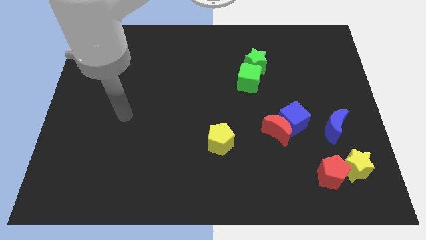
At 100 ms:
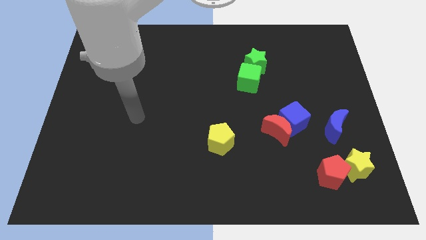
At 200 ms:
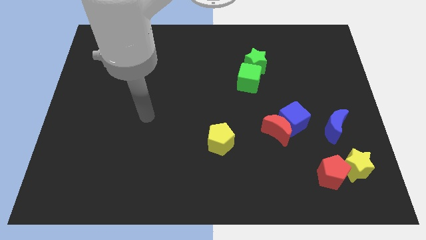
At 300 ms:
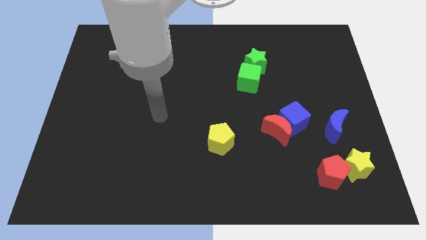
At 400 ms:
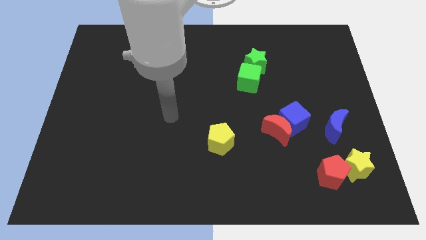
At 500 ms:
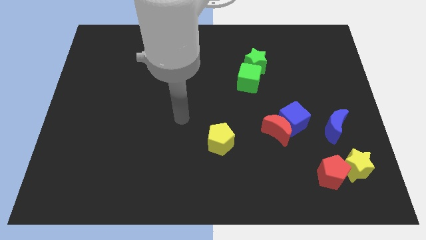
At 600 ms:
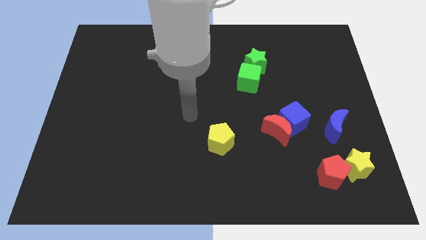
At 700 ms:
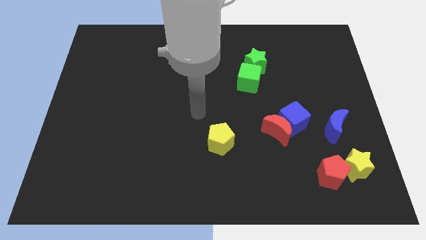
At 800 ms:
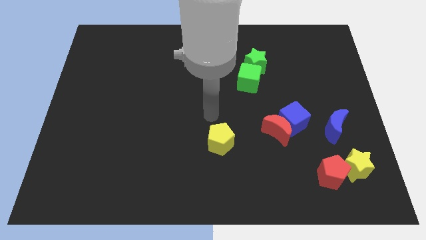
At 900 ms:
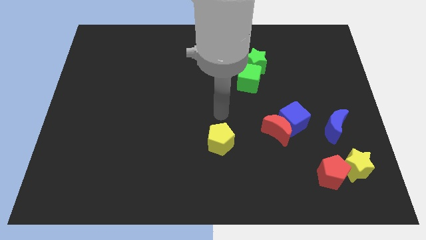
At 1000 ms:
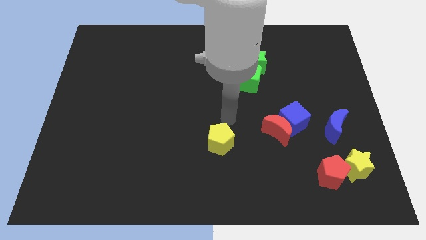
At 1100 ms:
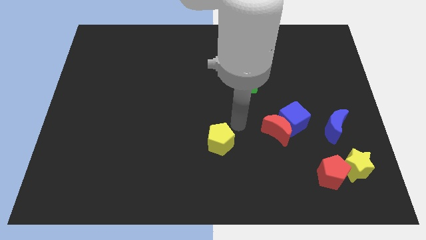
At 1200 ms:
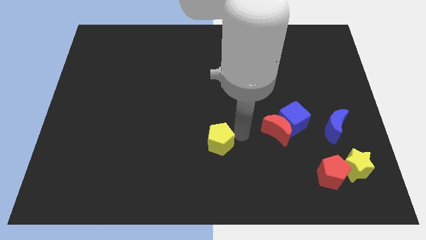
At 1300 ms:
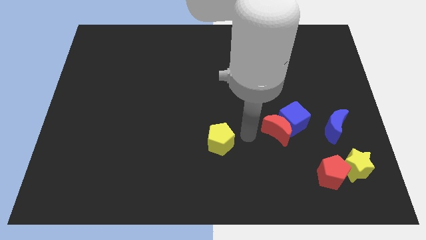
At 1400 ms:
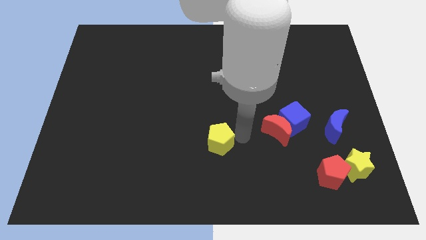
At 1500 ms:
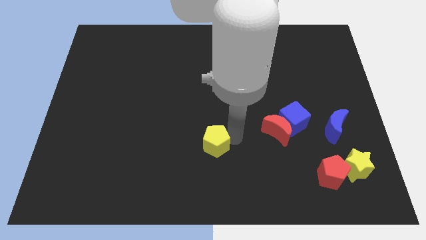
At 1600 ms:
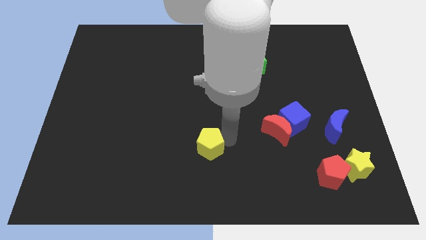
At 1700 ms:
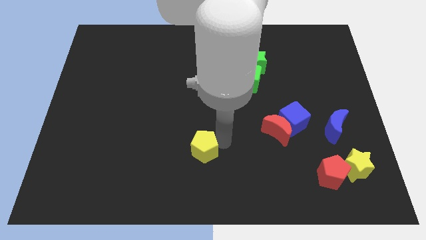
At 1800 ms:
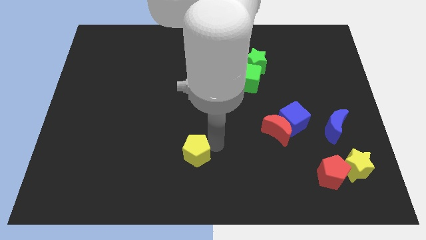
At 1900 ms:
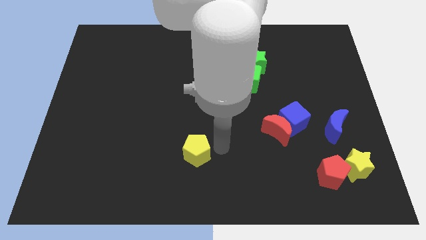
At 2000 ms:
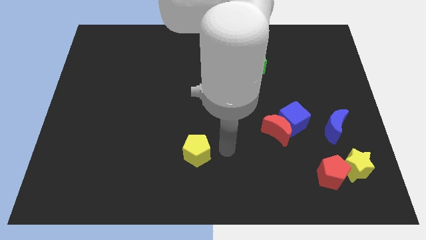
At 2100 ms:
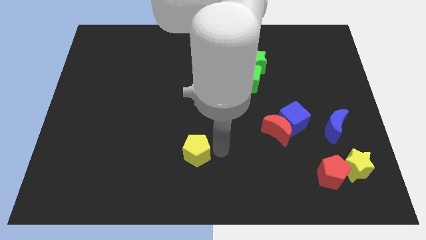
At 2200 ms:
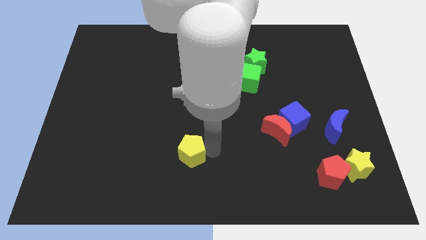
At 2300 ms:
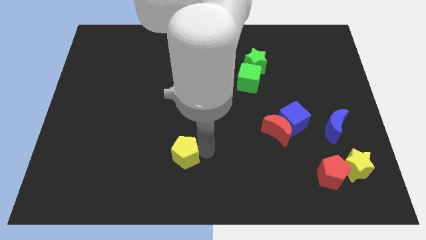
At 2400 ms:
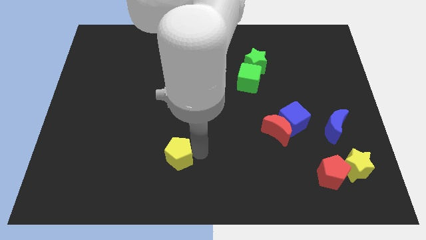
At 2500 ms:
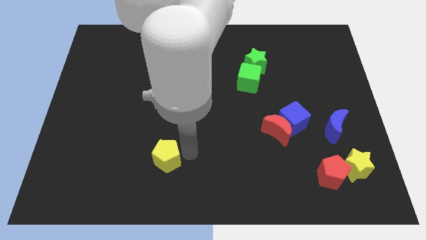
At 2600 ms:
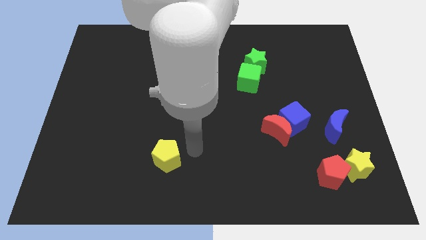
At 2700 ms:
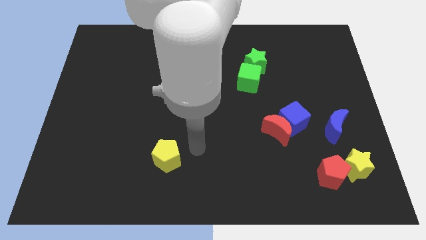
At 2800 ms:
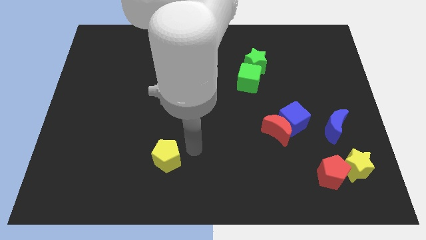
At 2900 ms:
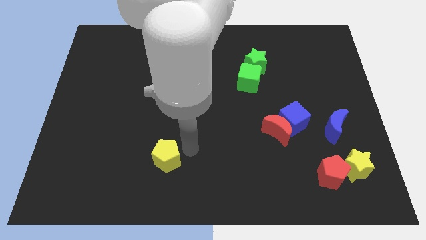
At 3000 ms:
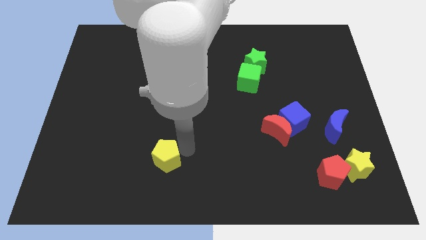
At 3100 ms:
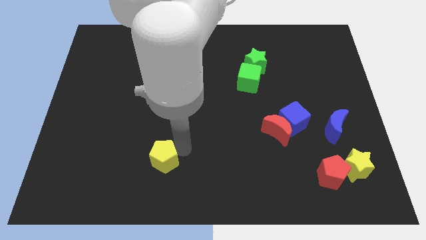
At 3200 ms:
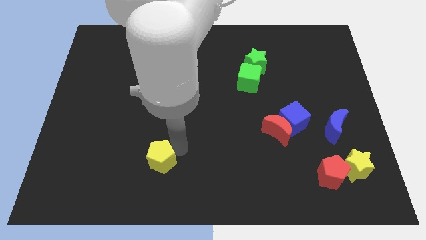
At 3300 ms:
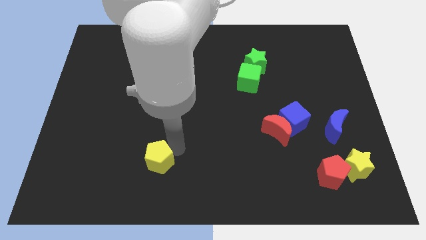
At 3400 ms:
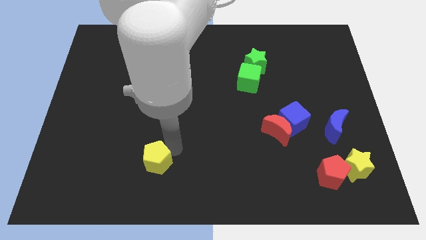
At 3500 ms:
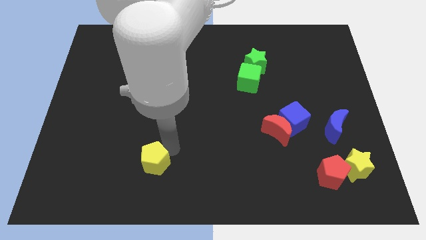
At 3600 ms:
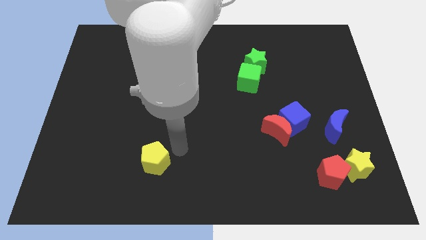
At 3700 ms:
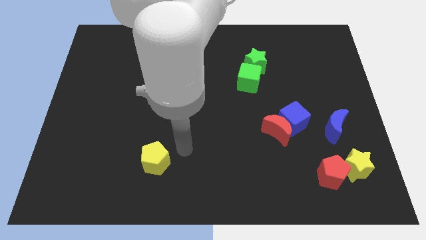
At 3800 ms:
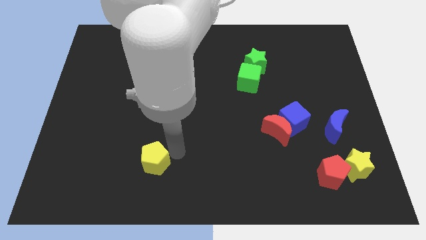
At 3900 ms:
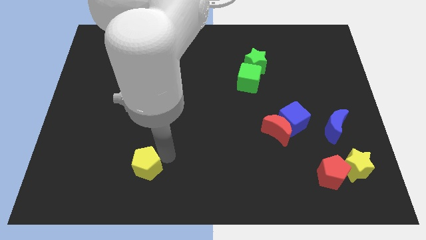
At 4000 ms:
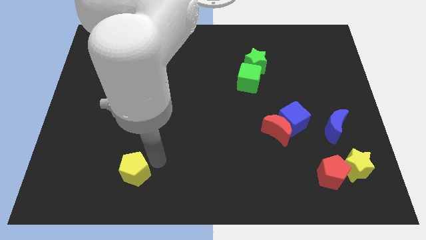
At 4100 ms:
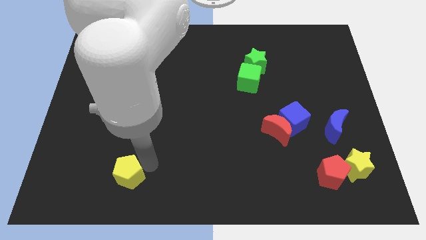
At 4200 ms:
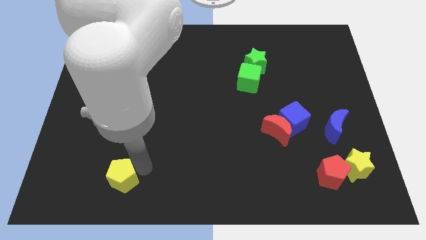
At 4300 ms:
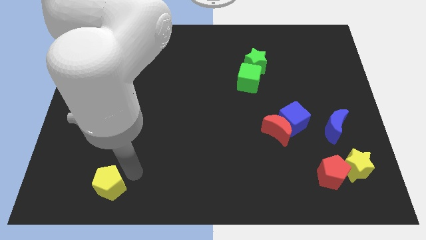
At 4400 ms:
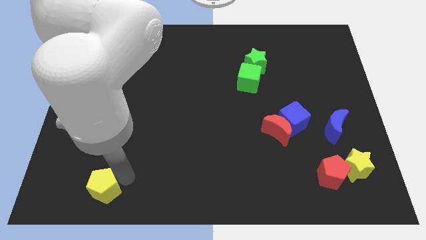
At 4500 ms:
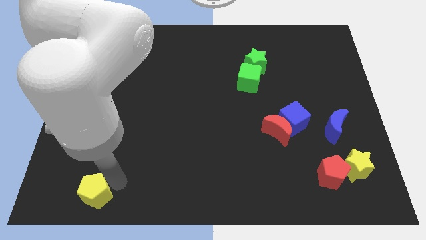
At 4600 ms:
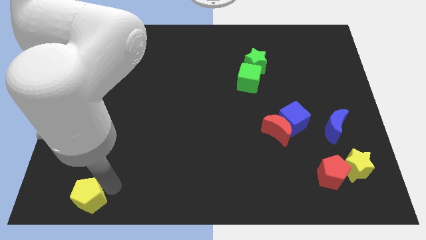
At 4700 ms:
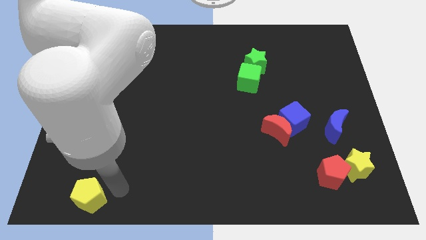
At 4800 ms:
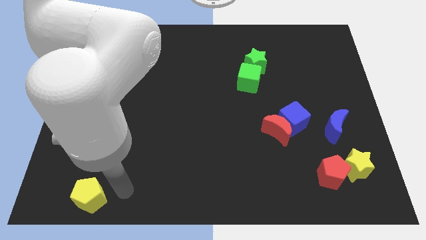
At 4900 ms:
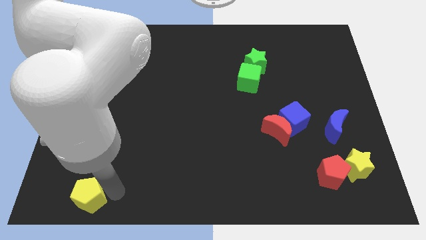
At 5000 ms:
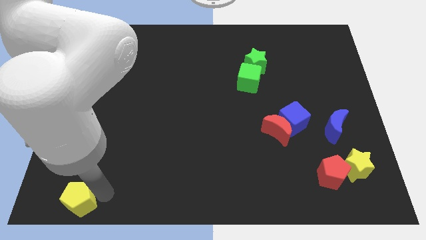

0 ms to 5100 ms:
put the yellow pentagon to the bottom left of the board

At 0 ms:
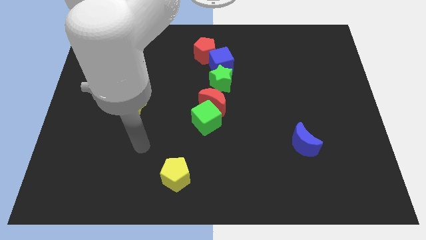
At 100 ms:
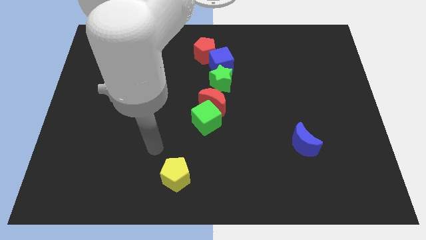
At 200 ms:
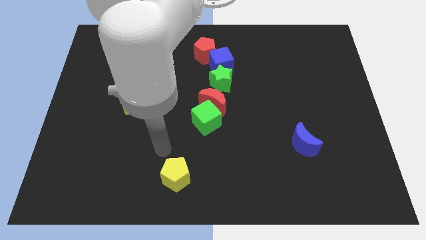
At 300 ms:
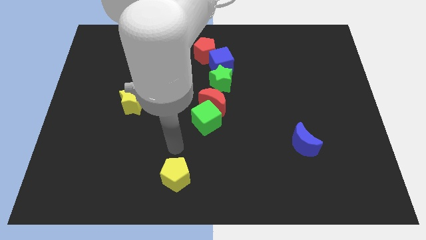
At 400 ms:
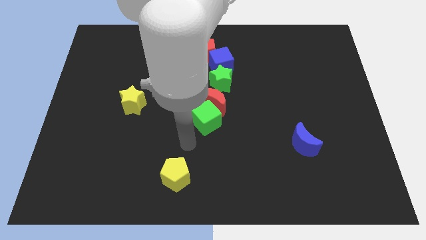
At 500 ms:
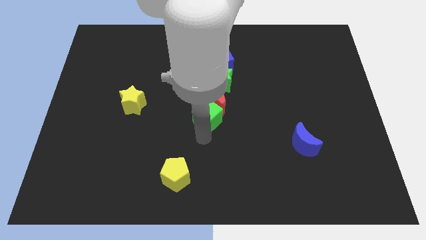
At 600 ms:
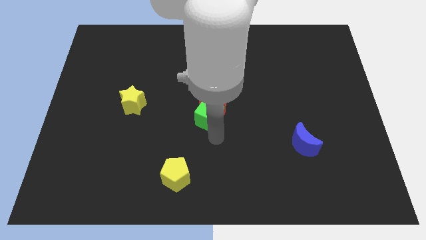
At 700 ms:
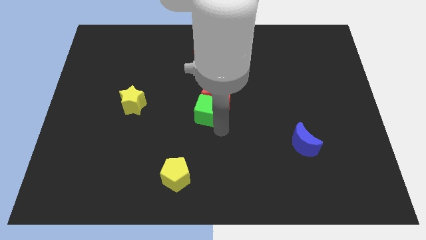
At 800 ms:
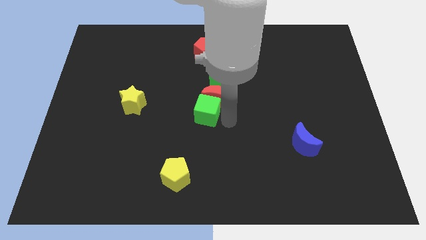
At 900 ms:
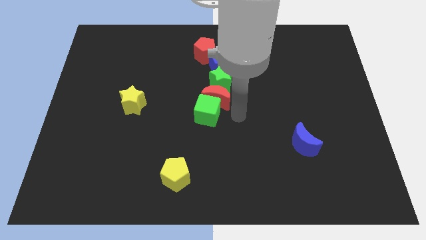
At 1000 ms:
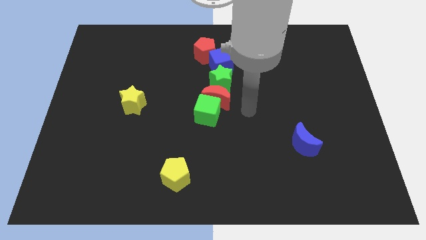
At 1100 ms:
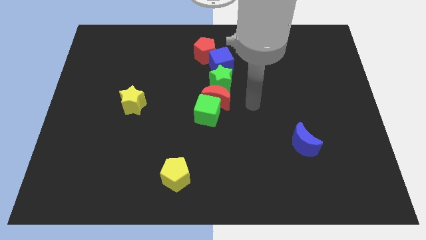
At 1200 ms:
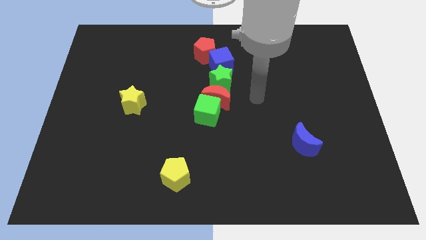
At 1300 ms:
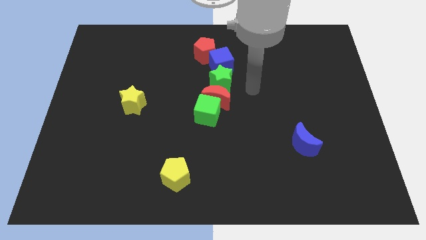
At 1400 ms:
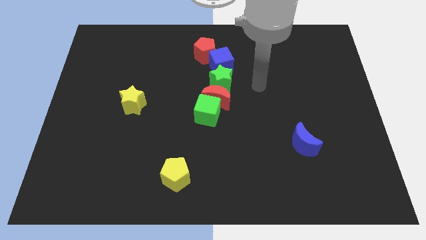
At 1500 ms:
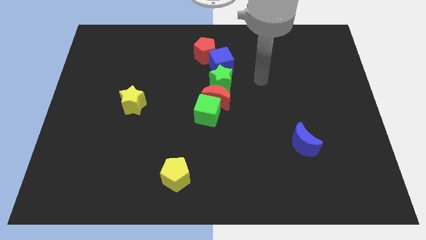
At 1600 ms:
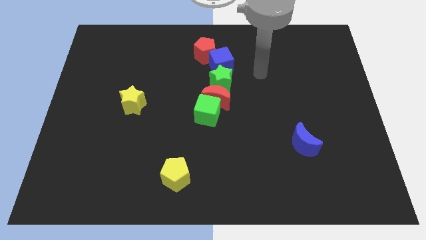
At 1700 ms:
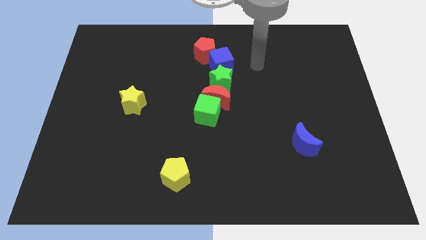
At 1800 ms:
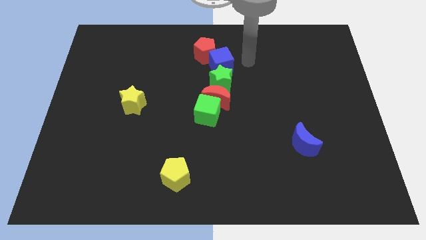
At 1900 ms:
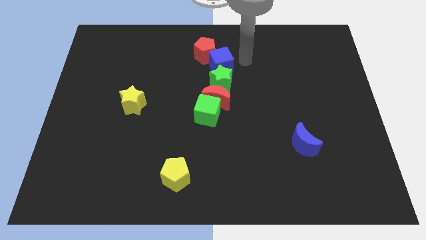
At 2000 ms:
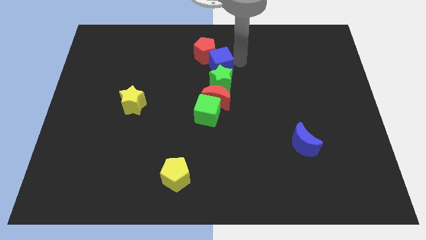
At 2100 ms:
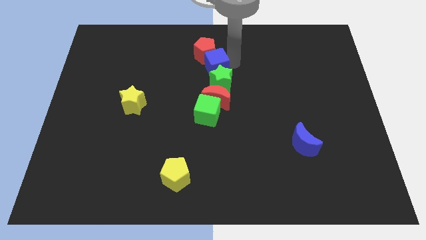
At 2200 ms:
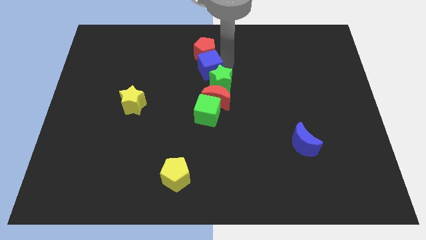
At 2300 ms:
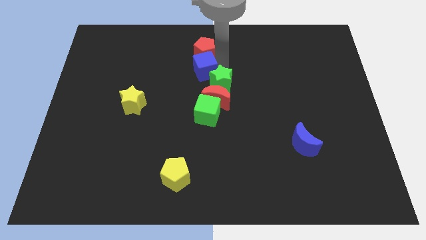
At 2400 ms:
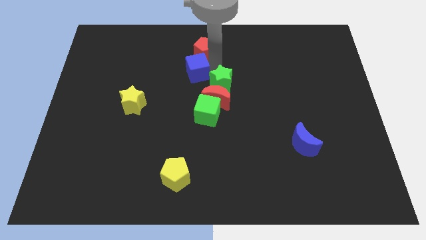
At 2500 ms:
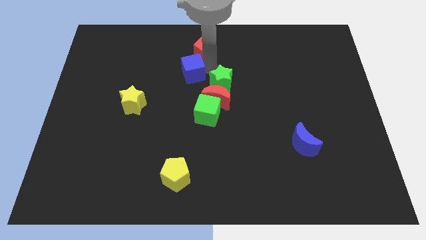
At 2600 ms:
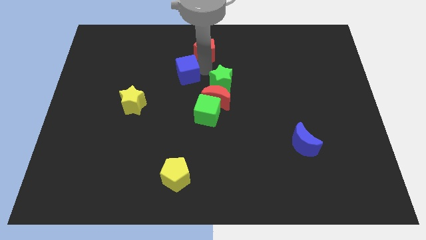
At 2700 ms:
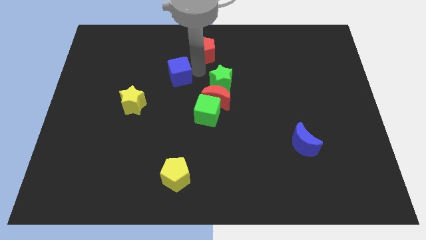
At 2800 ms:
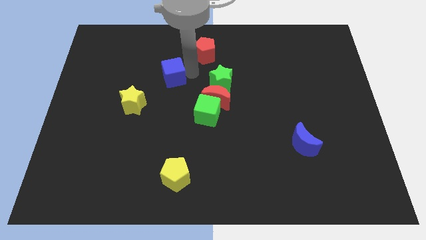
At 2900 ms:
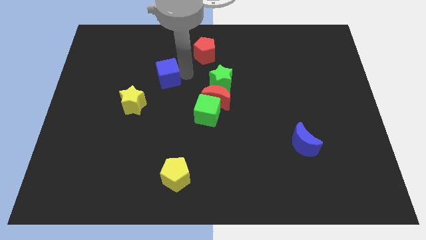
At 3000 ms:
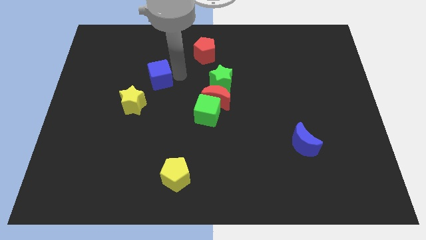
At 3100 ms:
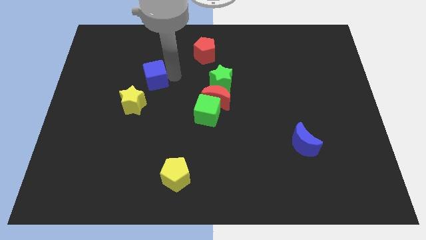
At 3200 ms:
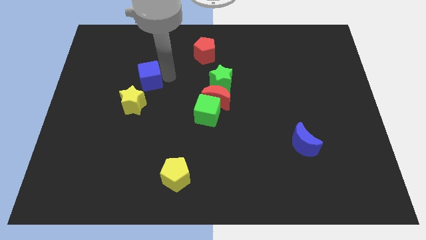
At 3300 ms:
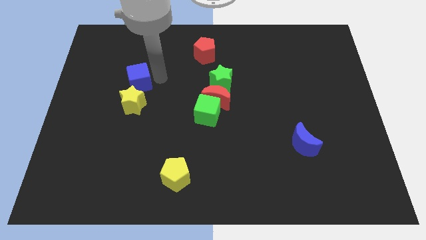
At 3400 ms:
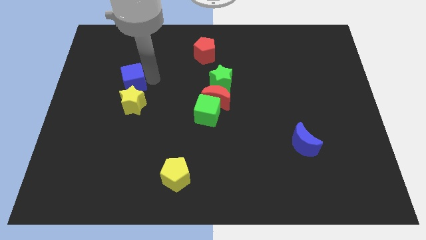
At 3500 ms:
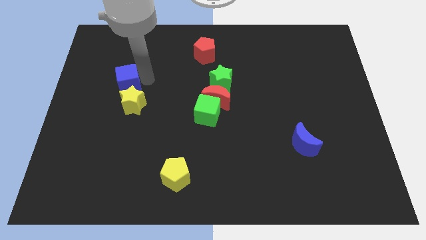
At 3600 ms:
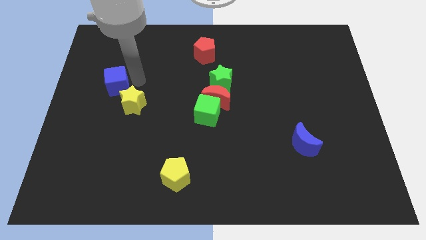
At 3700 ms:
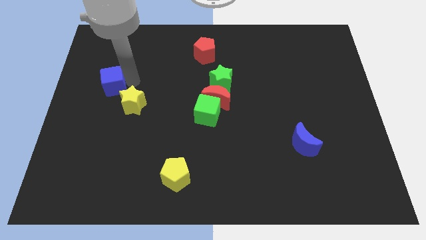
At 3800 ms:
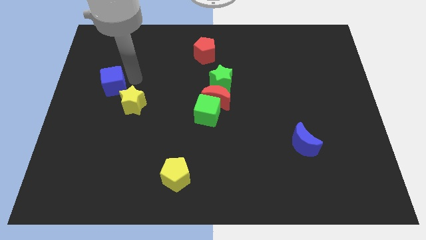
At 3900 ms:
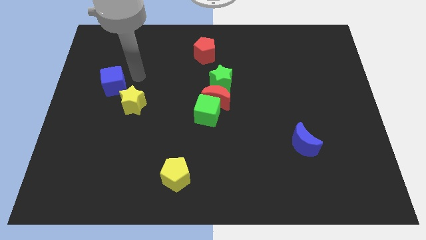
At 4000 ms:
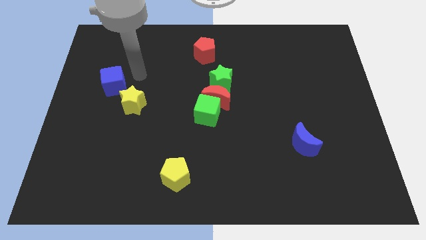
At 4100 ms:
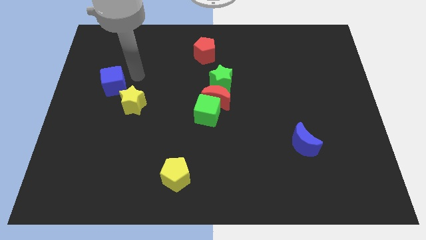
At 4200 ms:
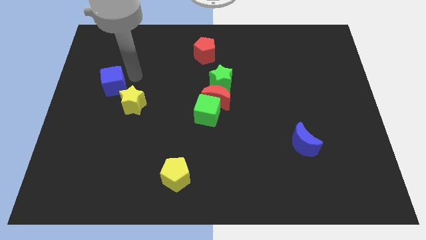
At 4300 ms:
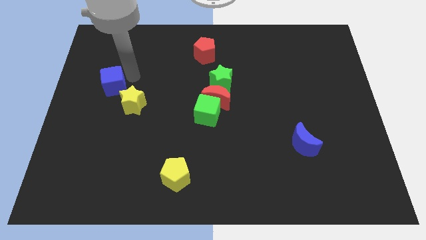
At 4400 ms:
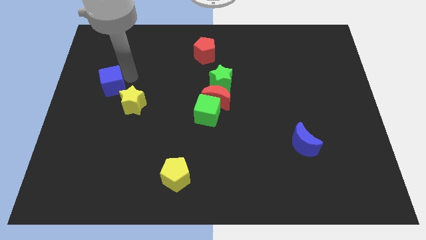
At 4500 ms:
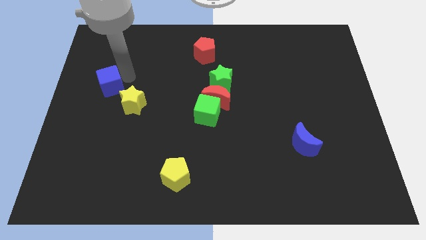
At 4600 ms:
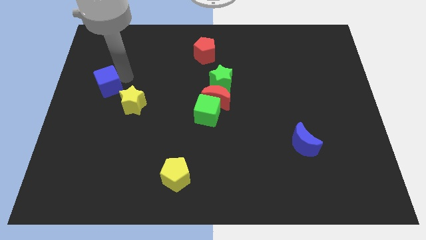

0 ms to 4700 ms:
move the blue cube to the center left
